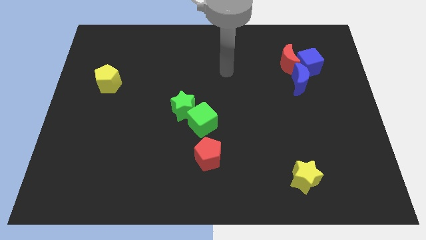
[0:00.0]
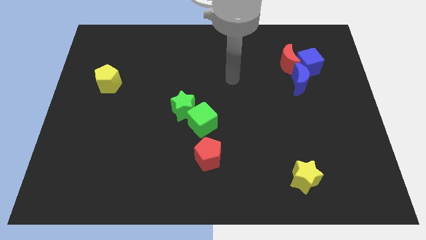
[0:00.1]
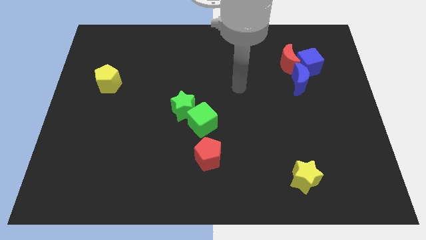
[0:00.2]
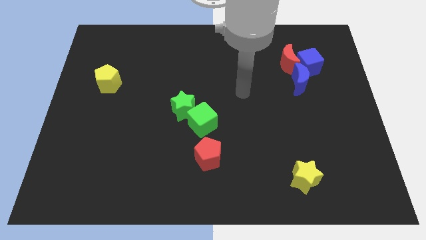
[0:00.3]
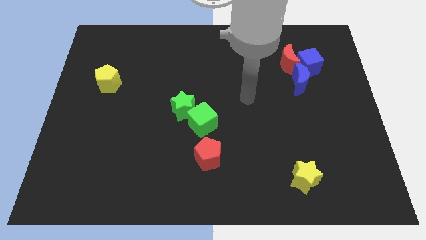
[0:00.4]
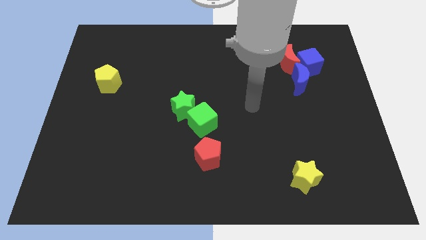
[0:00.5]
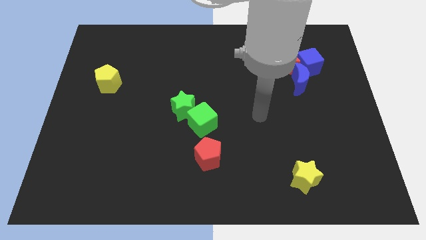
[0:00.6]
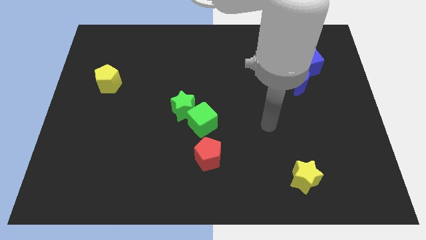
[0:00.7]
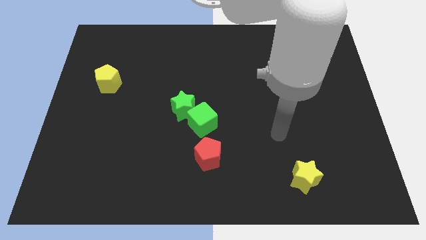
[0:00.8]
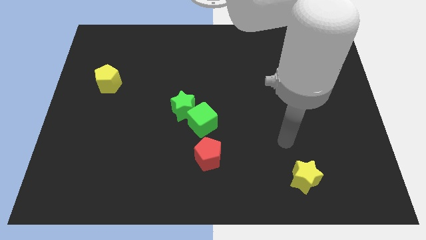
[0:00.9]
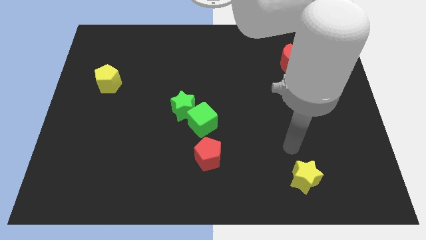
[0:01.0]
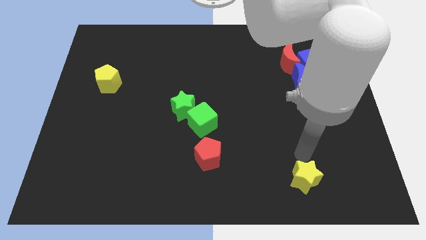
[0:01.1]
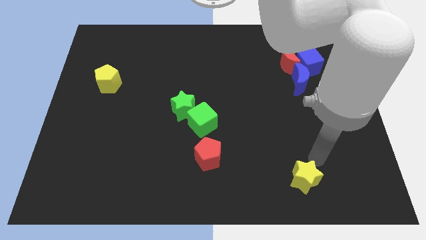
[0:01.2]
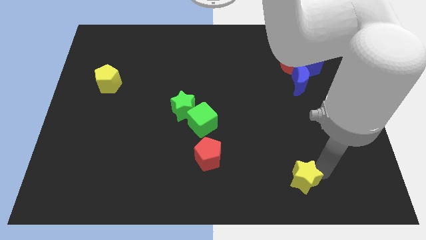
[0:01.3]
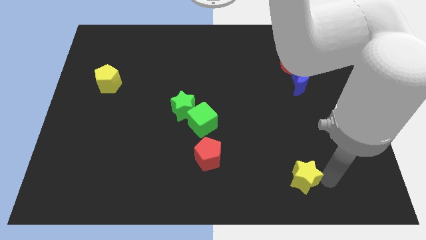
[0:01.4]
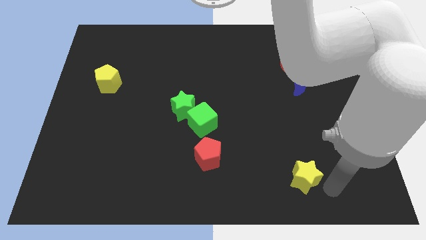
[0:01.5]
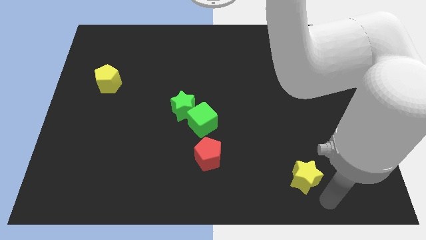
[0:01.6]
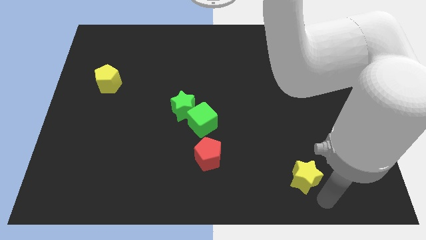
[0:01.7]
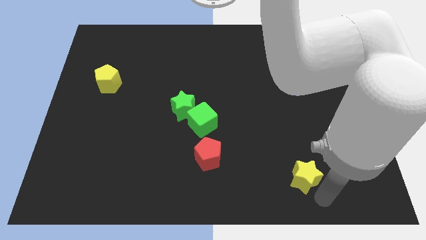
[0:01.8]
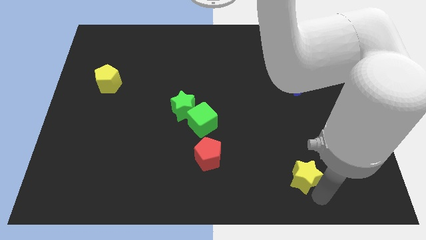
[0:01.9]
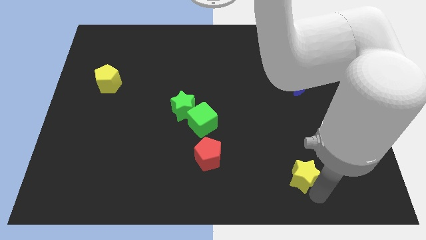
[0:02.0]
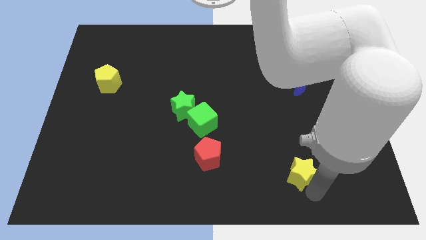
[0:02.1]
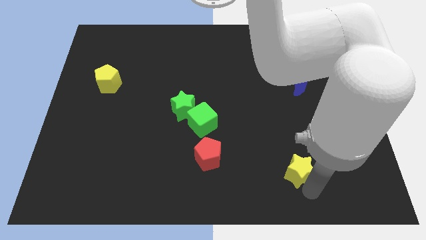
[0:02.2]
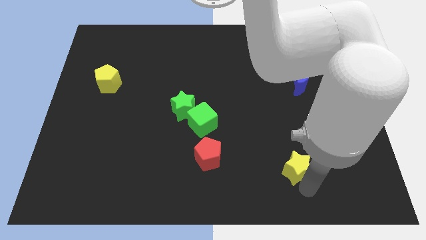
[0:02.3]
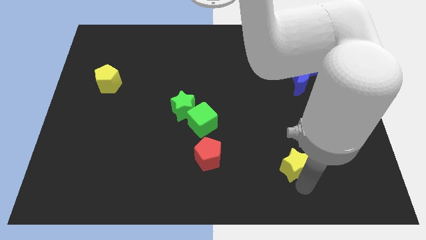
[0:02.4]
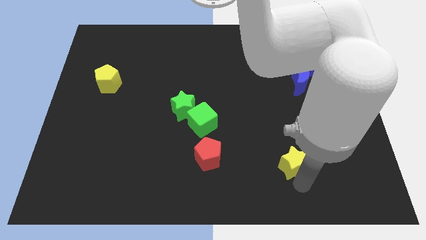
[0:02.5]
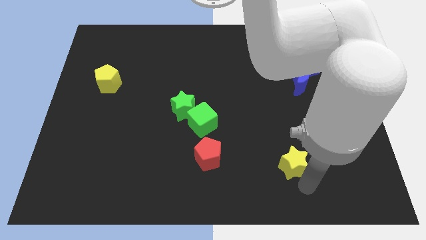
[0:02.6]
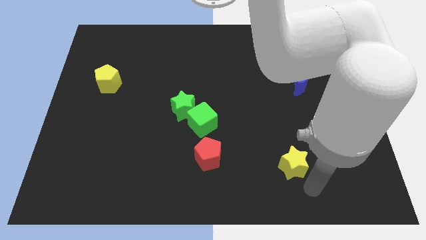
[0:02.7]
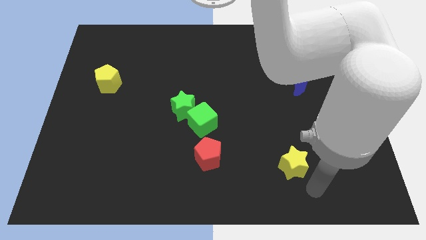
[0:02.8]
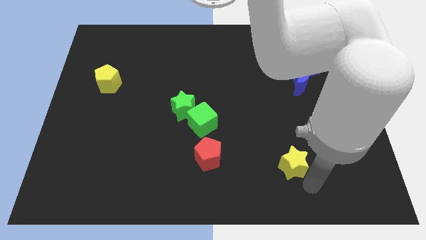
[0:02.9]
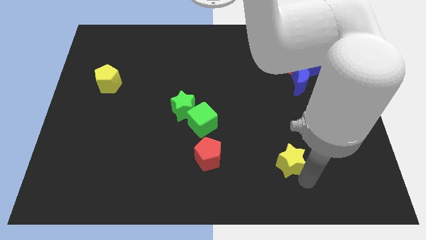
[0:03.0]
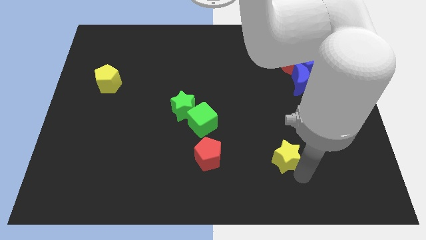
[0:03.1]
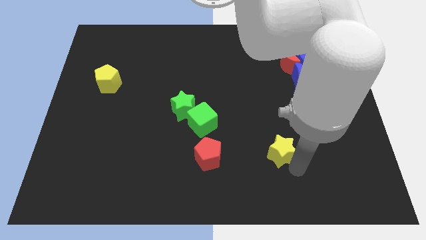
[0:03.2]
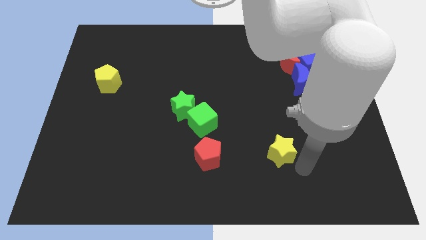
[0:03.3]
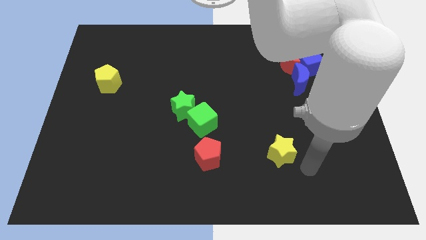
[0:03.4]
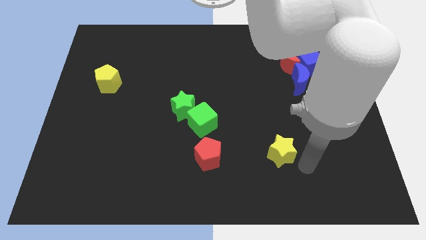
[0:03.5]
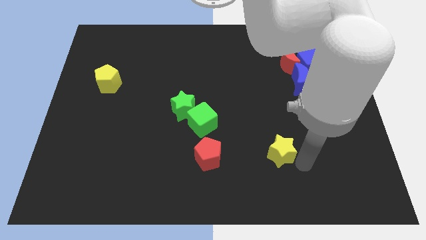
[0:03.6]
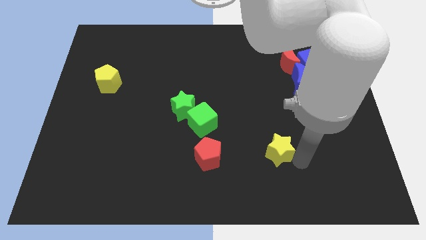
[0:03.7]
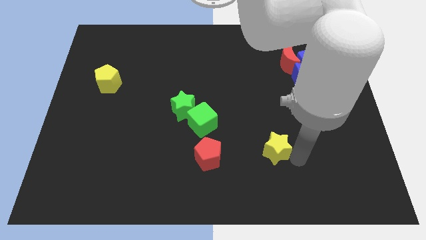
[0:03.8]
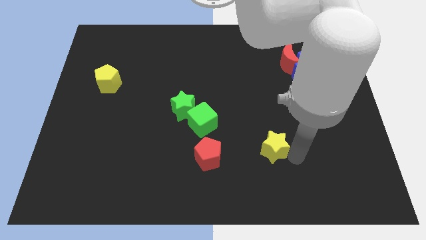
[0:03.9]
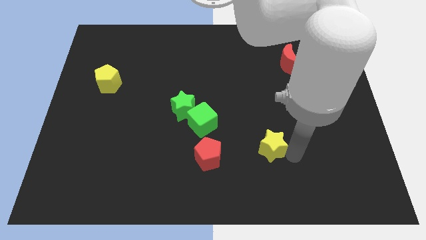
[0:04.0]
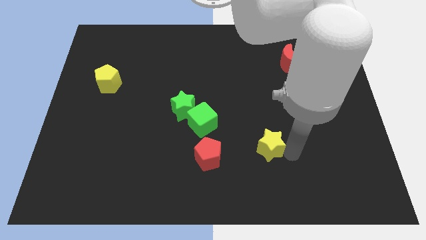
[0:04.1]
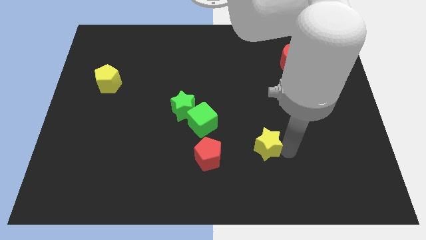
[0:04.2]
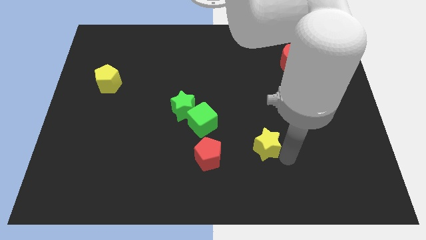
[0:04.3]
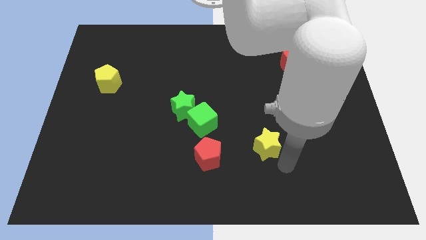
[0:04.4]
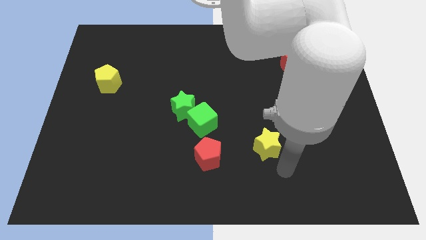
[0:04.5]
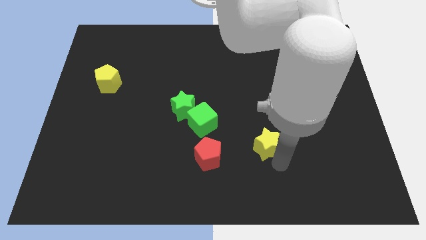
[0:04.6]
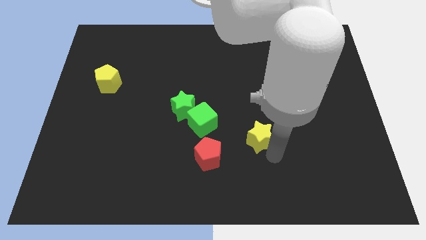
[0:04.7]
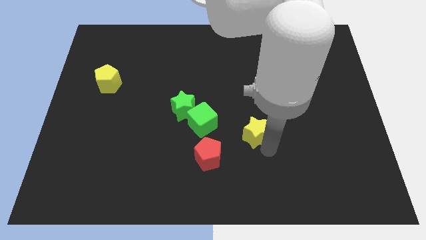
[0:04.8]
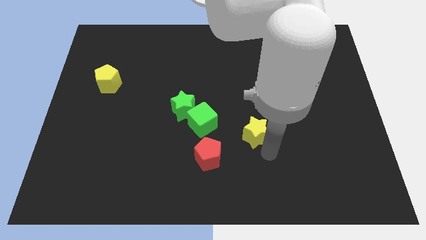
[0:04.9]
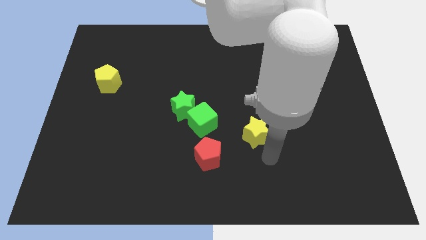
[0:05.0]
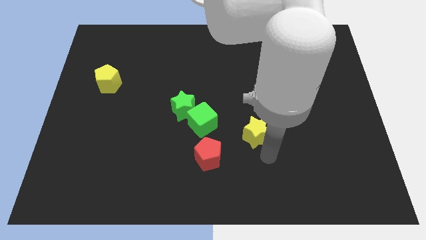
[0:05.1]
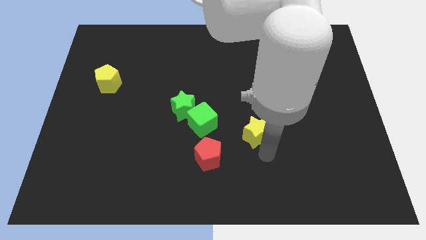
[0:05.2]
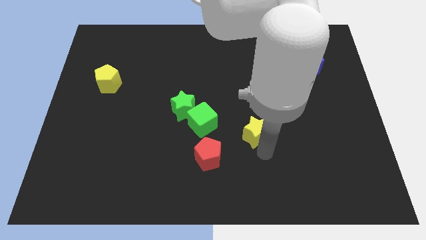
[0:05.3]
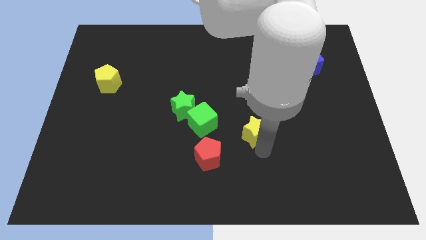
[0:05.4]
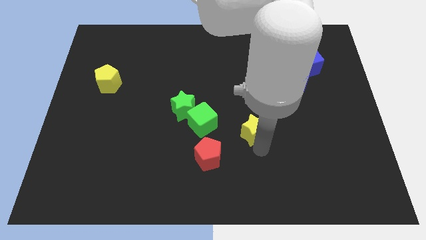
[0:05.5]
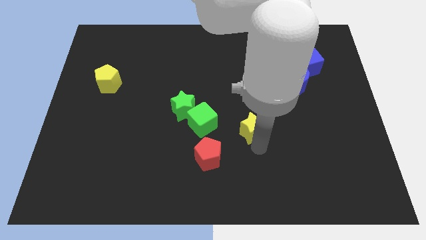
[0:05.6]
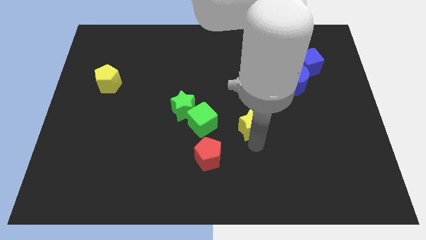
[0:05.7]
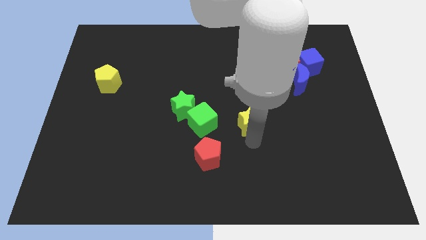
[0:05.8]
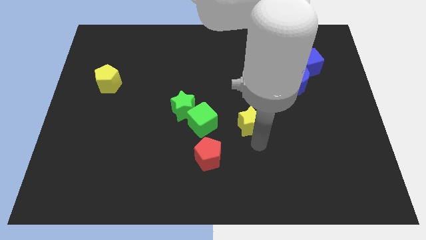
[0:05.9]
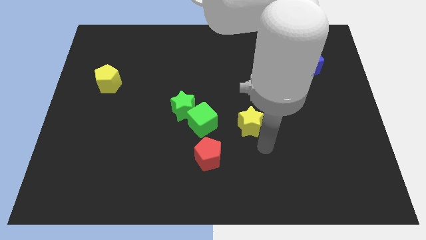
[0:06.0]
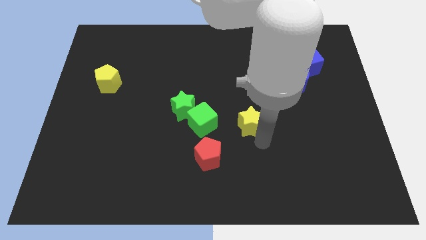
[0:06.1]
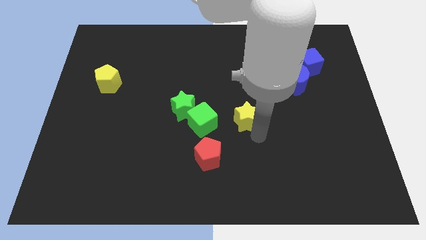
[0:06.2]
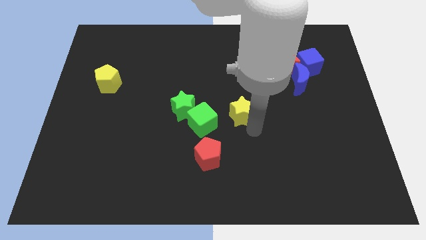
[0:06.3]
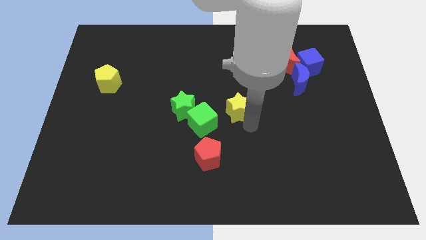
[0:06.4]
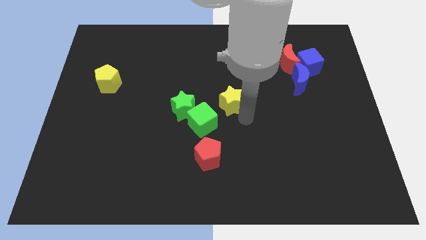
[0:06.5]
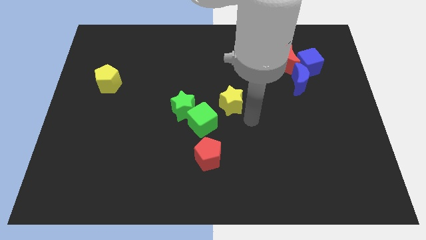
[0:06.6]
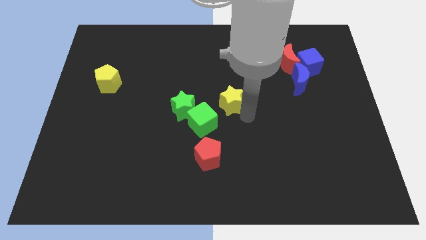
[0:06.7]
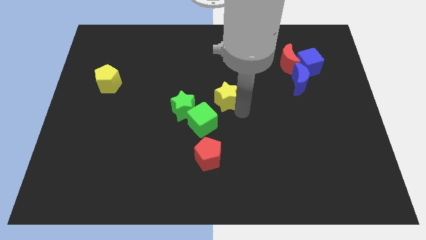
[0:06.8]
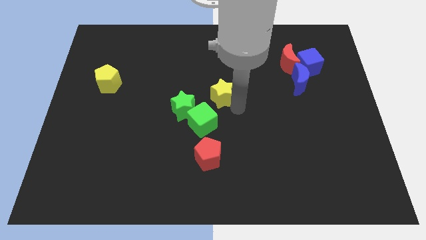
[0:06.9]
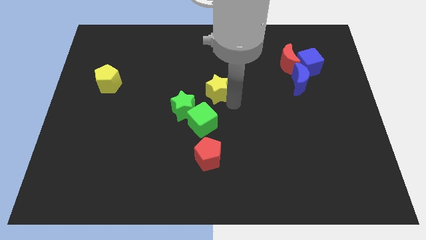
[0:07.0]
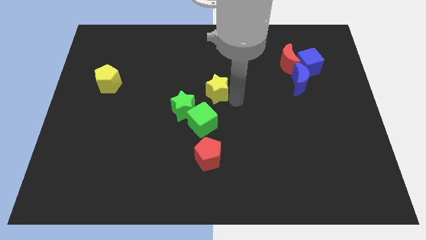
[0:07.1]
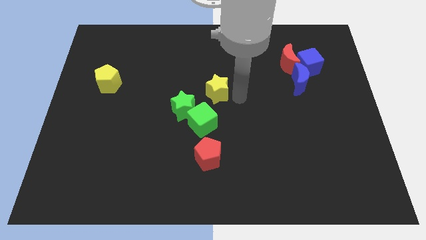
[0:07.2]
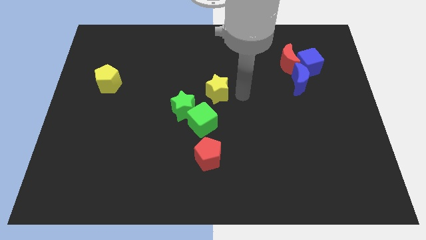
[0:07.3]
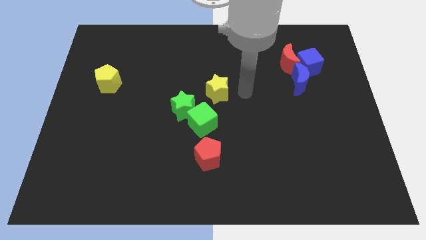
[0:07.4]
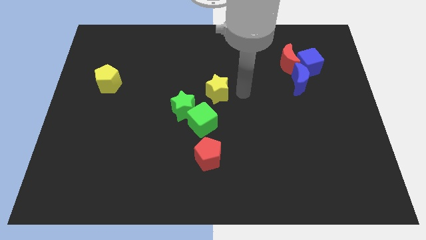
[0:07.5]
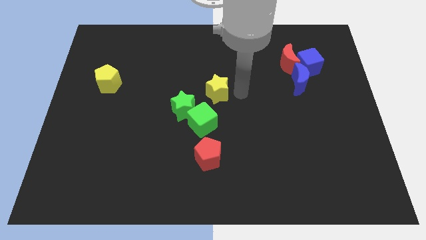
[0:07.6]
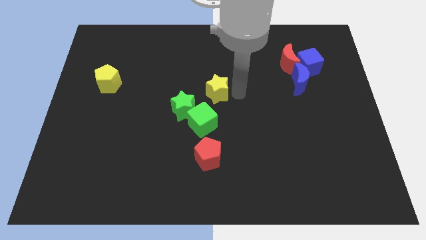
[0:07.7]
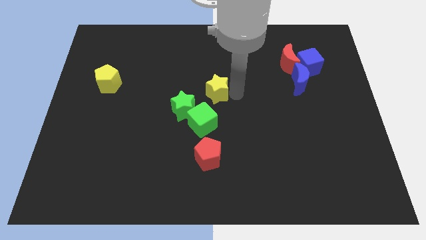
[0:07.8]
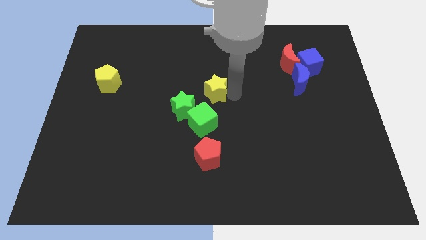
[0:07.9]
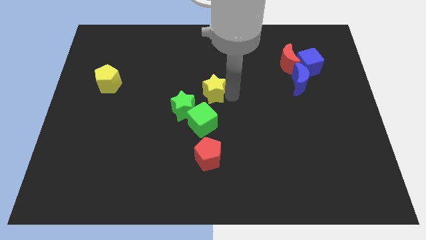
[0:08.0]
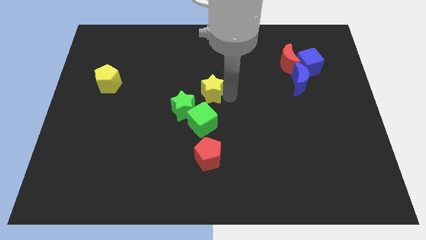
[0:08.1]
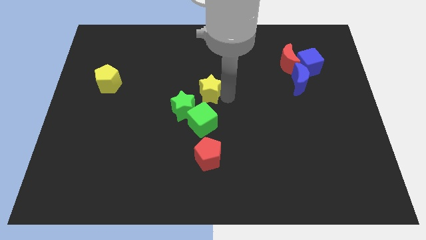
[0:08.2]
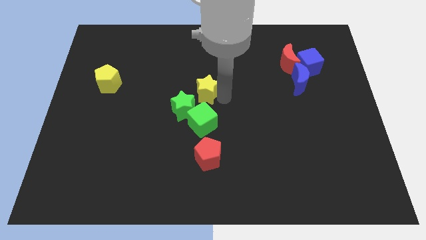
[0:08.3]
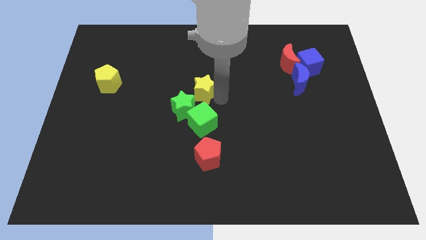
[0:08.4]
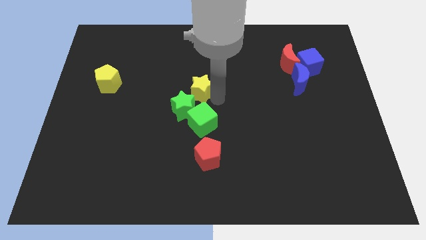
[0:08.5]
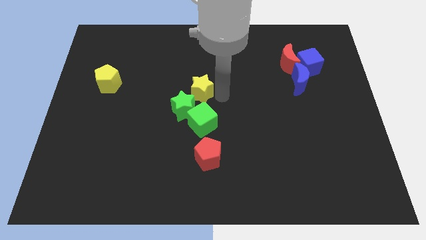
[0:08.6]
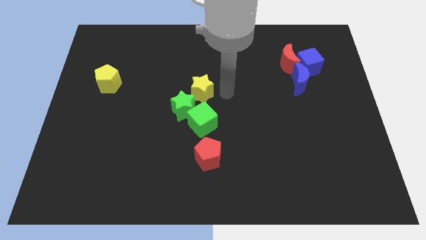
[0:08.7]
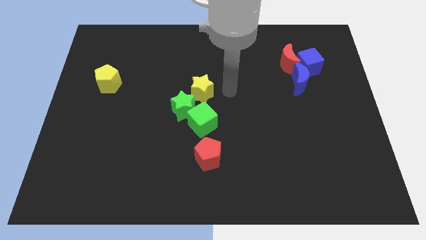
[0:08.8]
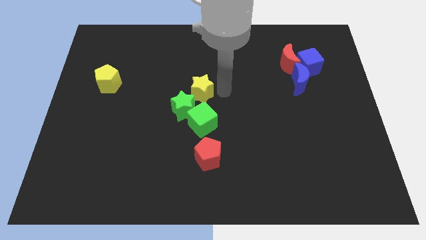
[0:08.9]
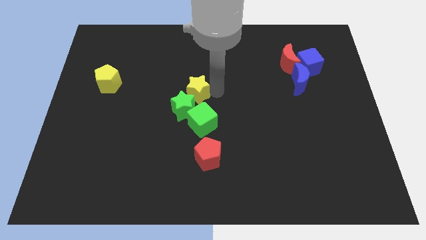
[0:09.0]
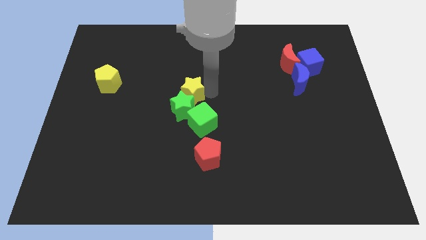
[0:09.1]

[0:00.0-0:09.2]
move the yellow star to the top left of the green cube
